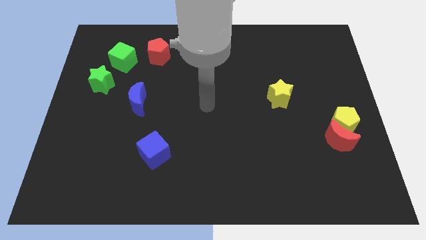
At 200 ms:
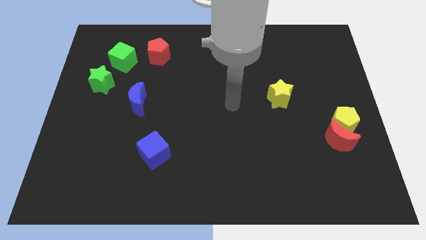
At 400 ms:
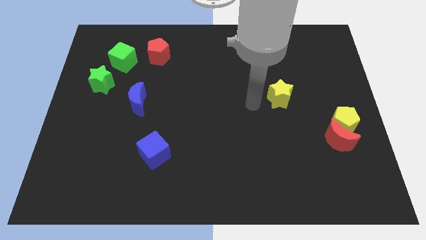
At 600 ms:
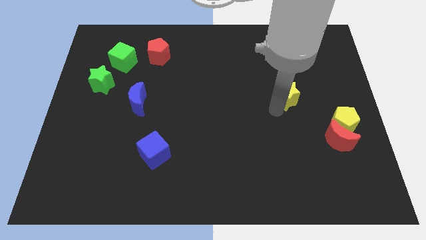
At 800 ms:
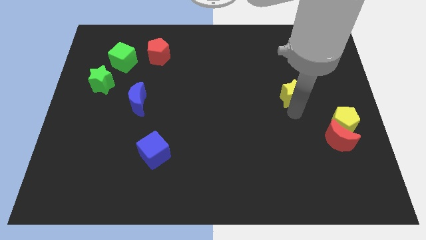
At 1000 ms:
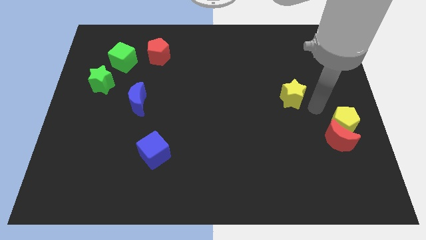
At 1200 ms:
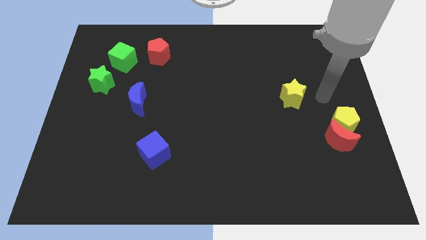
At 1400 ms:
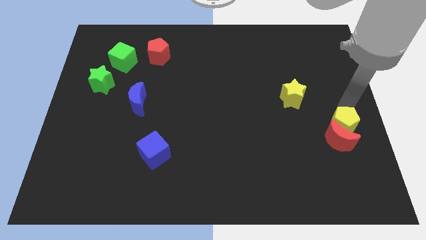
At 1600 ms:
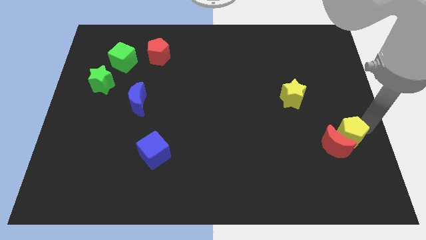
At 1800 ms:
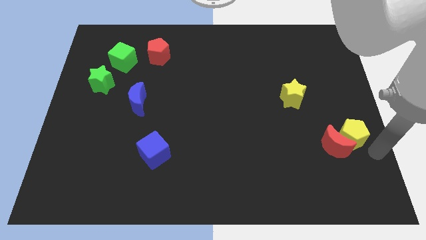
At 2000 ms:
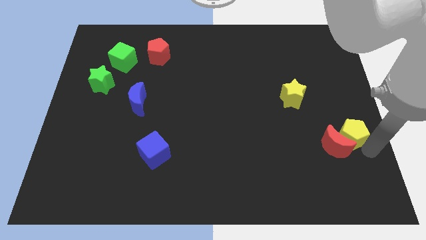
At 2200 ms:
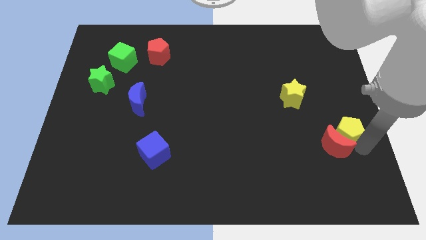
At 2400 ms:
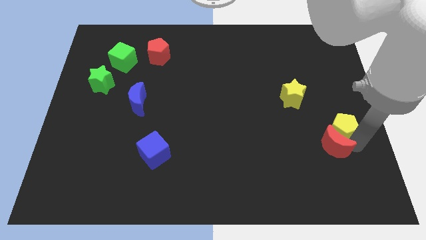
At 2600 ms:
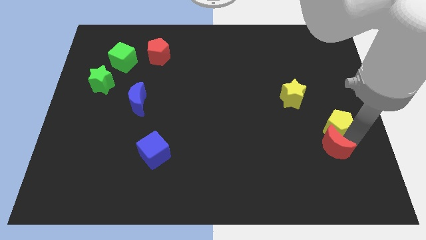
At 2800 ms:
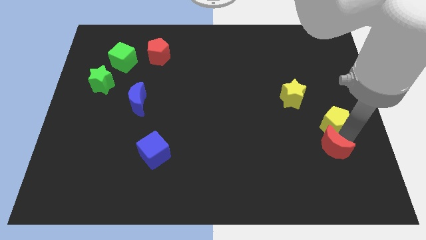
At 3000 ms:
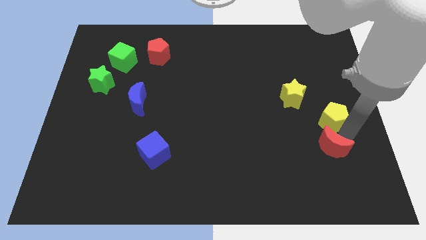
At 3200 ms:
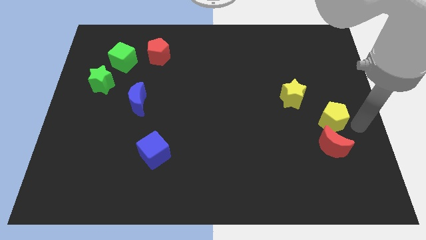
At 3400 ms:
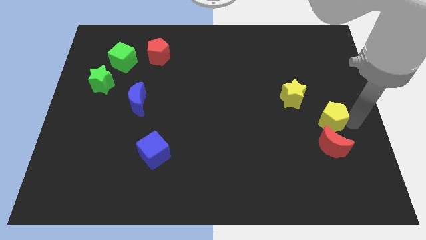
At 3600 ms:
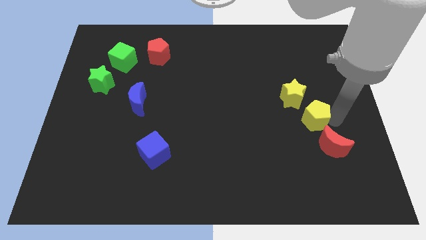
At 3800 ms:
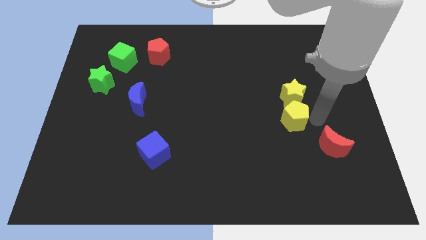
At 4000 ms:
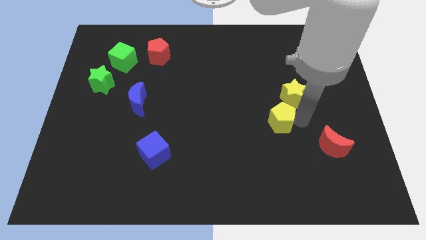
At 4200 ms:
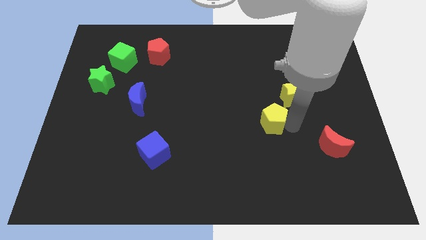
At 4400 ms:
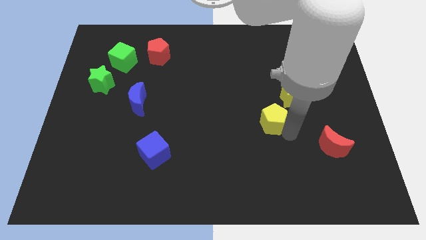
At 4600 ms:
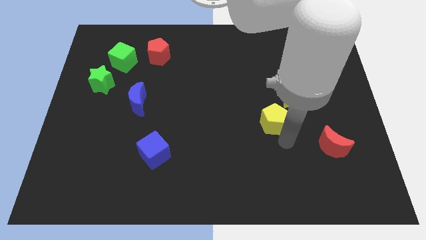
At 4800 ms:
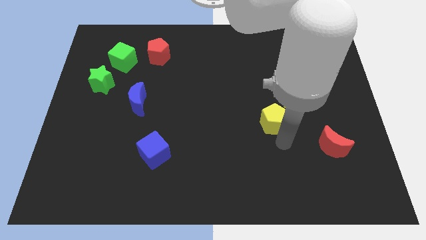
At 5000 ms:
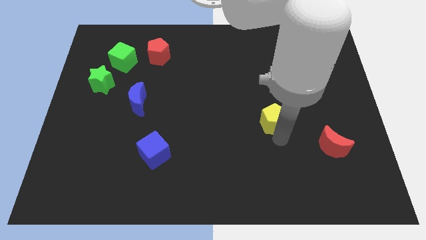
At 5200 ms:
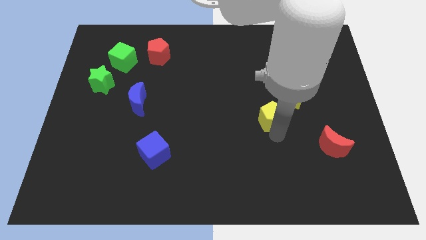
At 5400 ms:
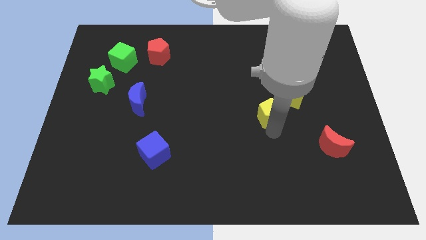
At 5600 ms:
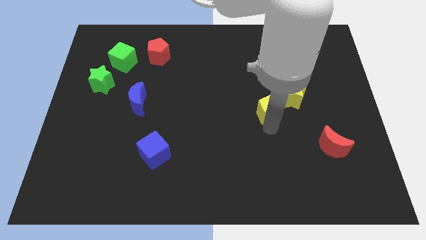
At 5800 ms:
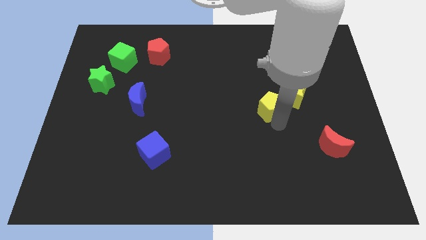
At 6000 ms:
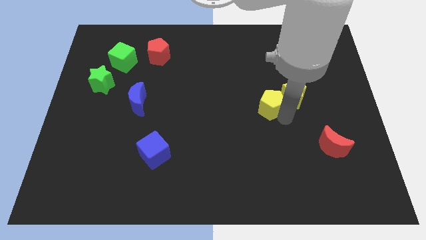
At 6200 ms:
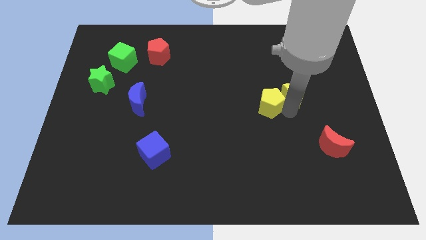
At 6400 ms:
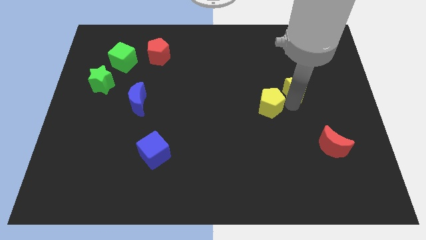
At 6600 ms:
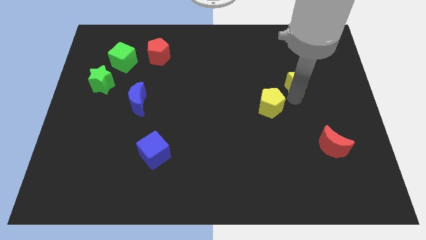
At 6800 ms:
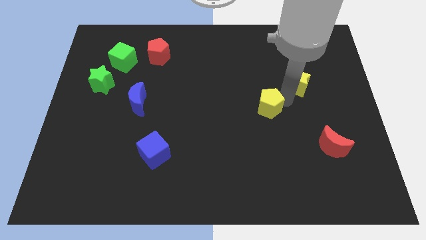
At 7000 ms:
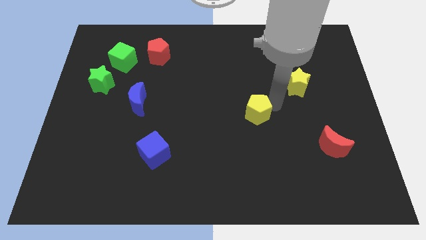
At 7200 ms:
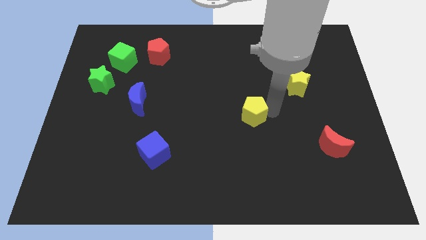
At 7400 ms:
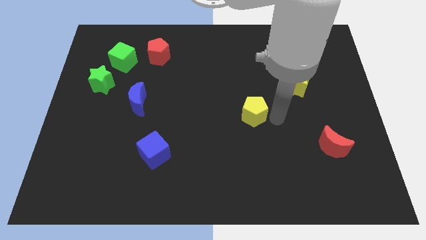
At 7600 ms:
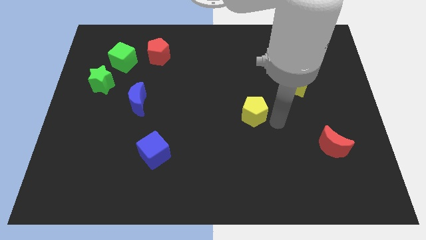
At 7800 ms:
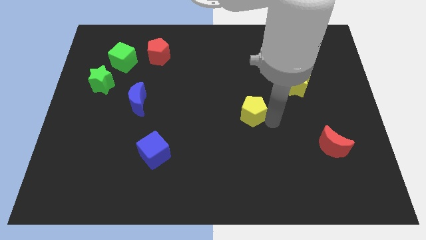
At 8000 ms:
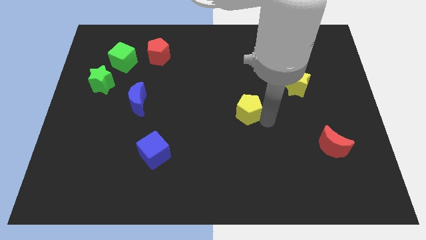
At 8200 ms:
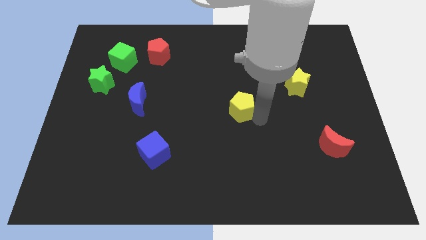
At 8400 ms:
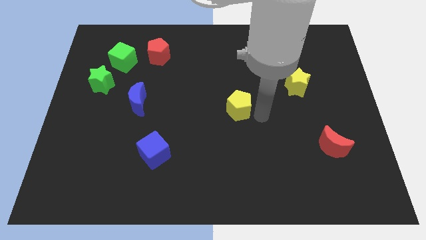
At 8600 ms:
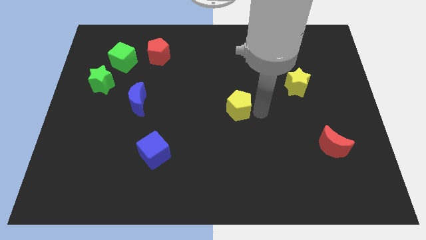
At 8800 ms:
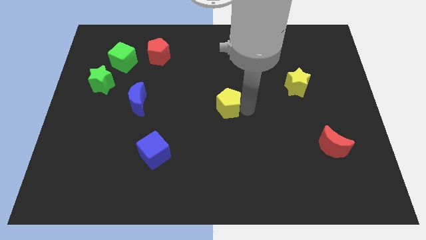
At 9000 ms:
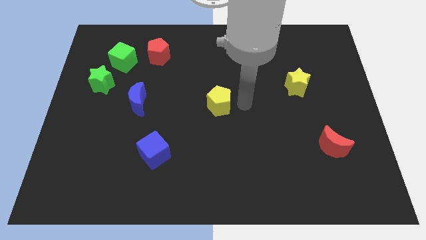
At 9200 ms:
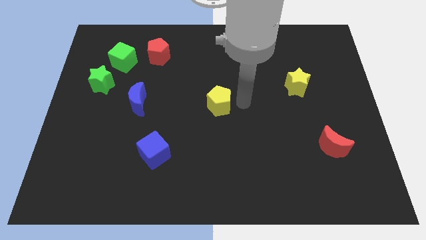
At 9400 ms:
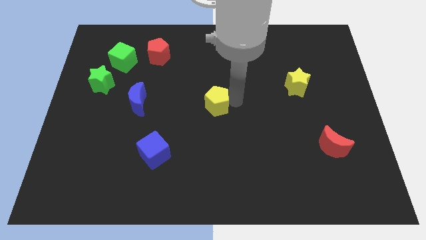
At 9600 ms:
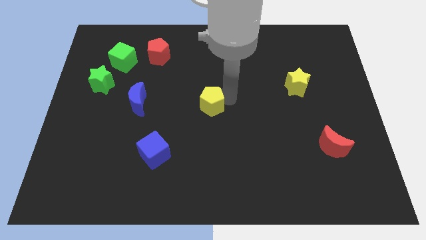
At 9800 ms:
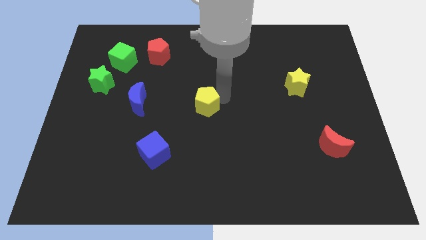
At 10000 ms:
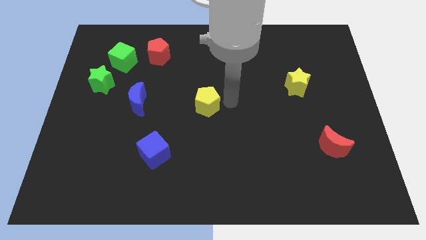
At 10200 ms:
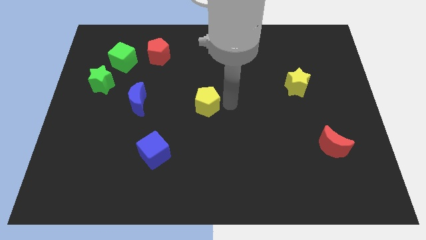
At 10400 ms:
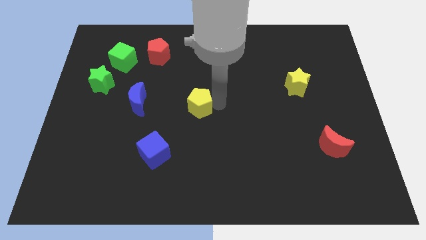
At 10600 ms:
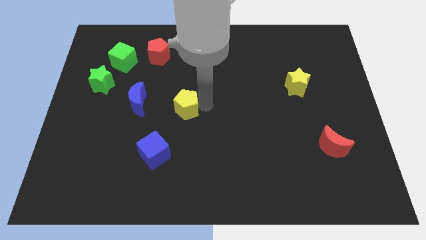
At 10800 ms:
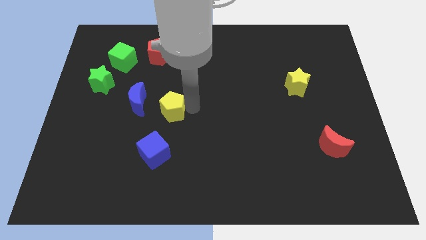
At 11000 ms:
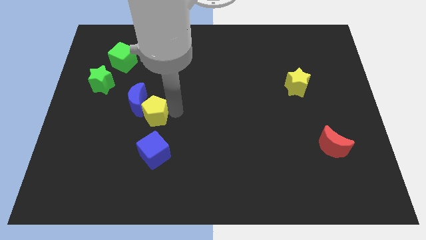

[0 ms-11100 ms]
put the yellow pentagon towards the blue moon

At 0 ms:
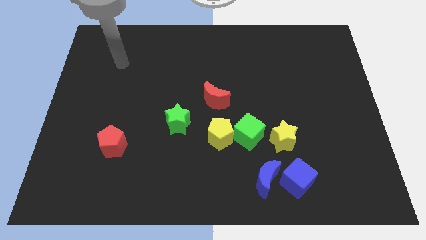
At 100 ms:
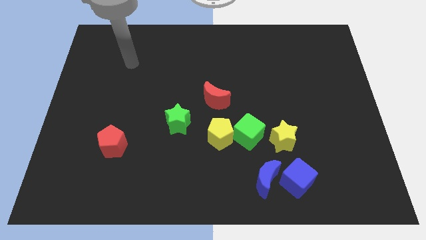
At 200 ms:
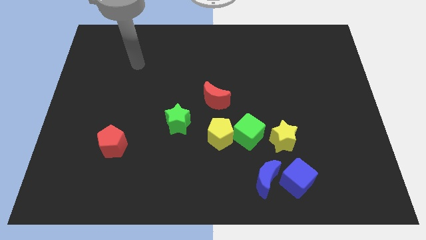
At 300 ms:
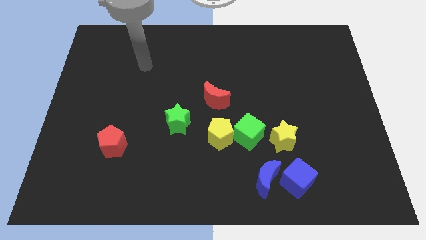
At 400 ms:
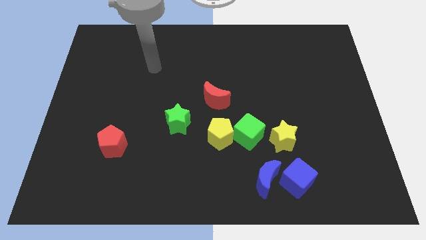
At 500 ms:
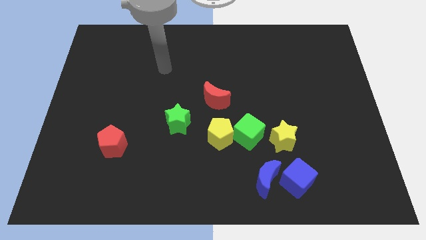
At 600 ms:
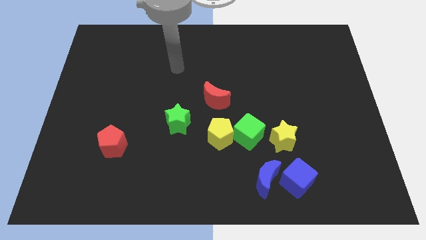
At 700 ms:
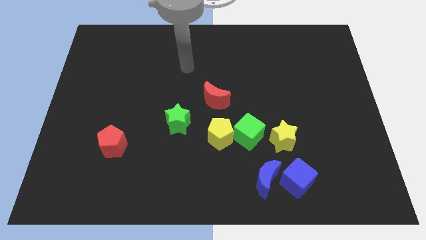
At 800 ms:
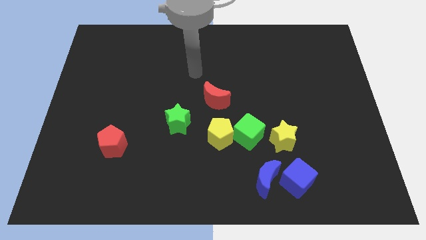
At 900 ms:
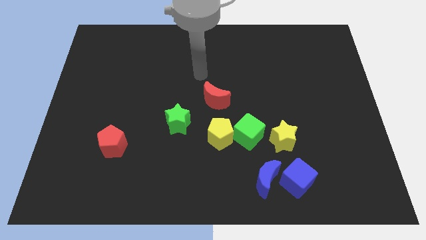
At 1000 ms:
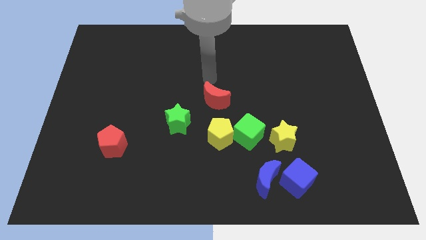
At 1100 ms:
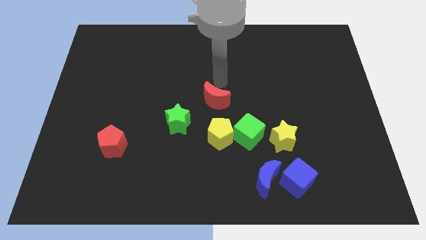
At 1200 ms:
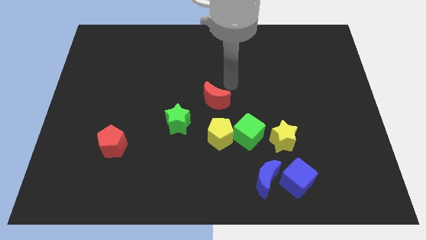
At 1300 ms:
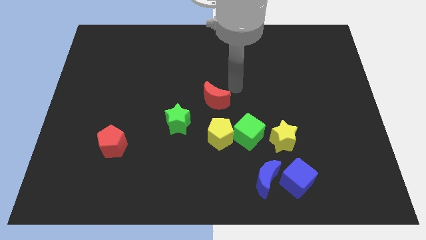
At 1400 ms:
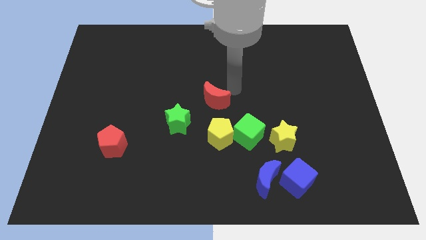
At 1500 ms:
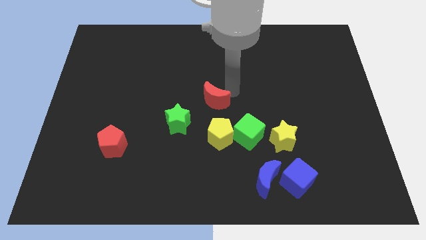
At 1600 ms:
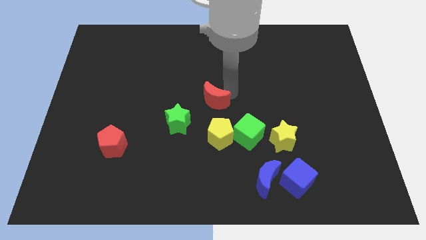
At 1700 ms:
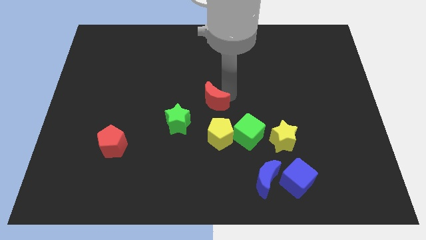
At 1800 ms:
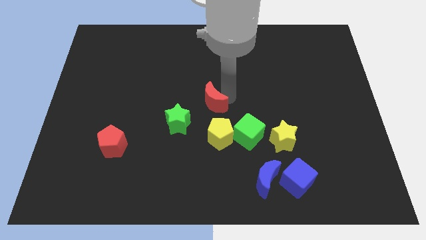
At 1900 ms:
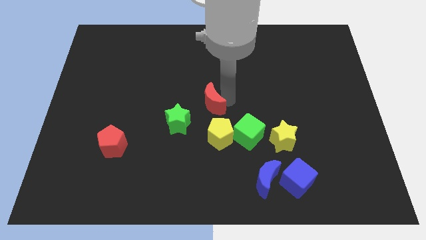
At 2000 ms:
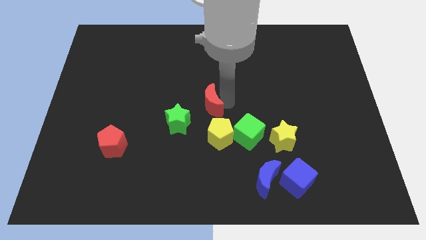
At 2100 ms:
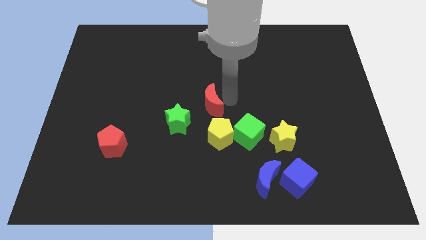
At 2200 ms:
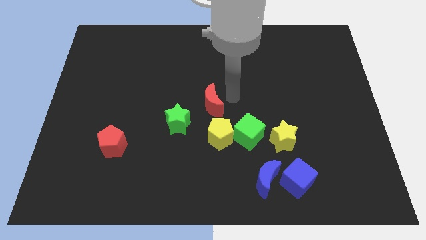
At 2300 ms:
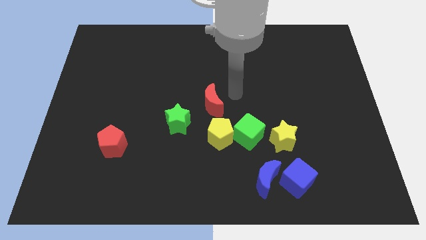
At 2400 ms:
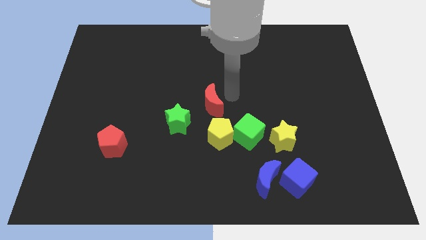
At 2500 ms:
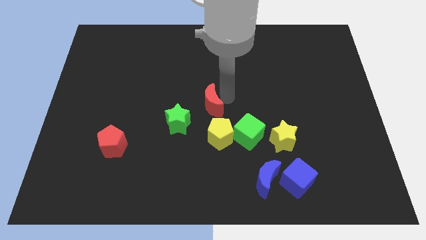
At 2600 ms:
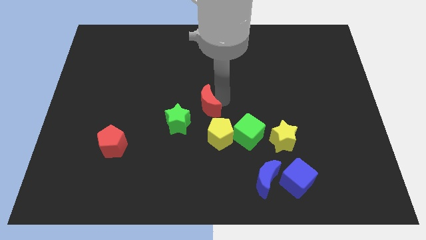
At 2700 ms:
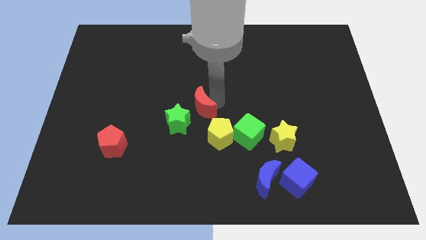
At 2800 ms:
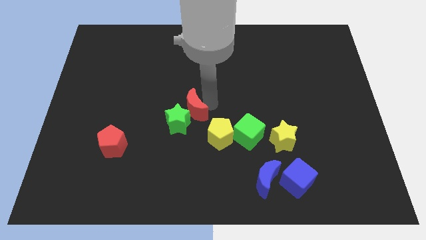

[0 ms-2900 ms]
put the red moon next to the green star
